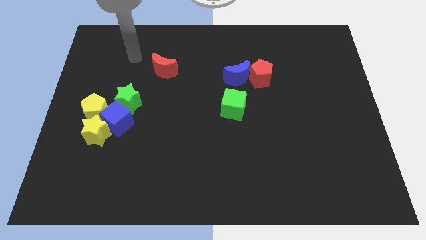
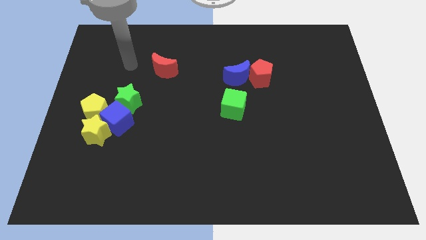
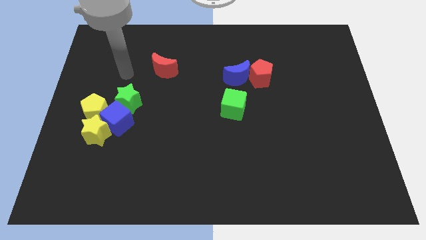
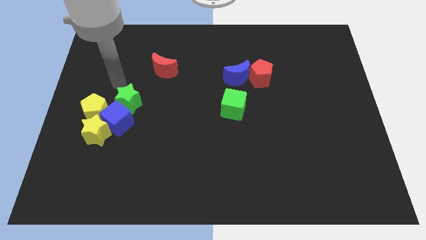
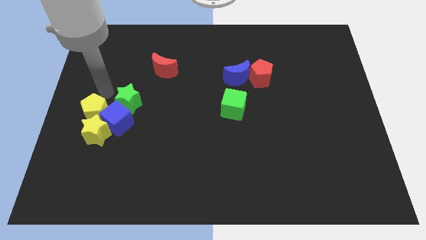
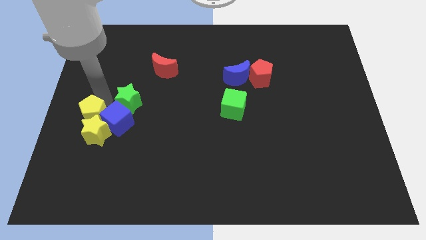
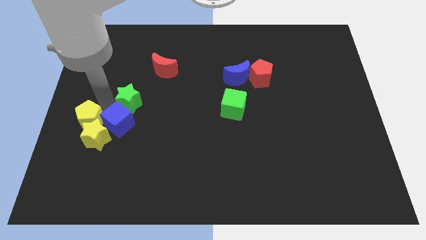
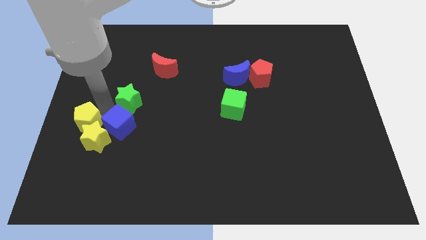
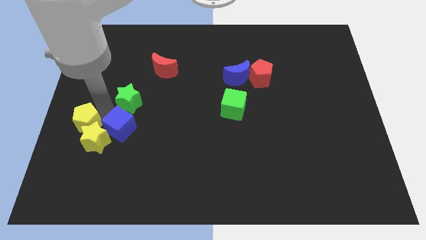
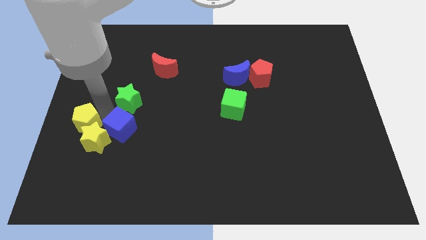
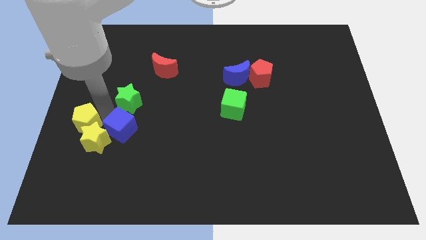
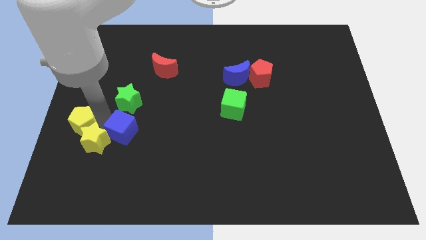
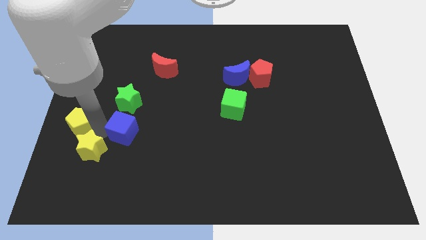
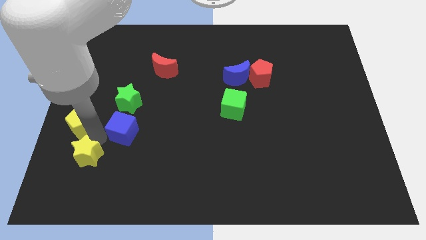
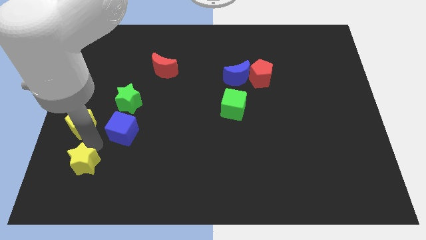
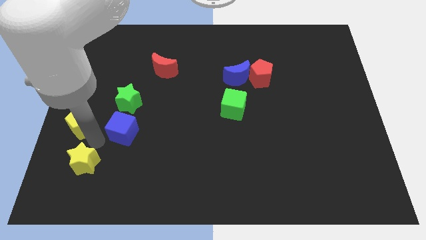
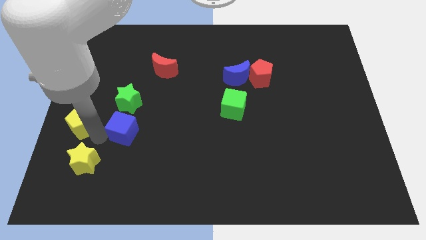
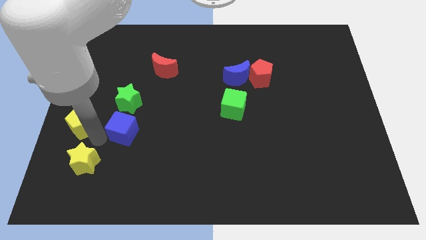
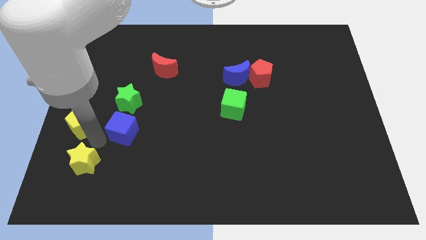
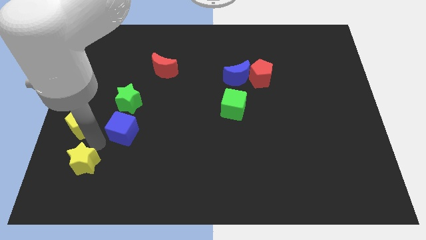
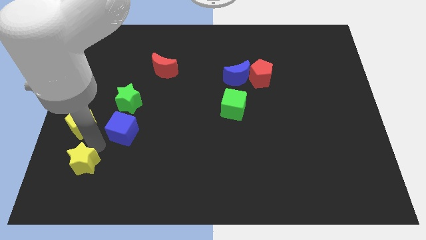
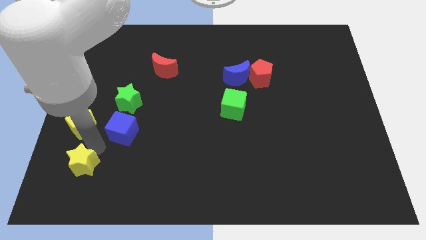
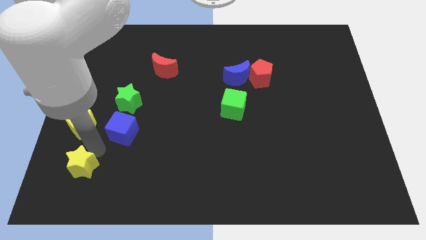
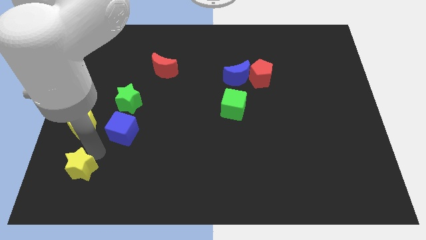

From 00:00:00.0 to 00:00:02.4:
pull the yellow star apart from the blue cube and yellow pentagon

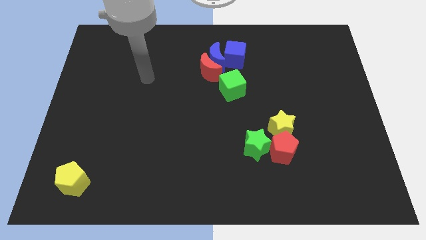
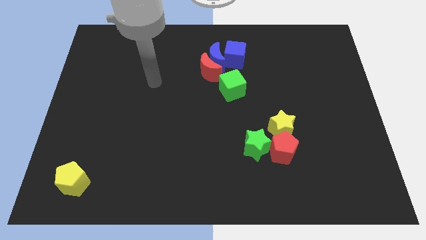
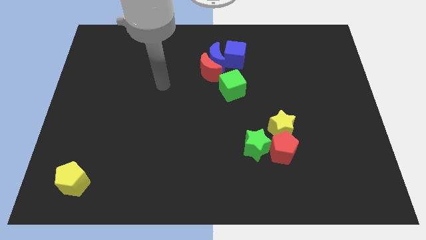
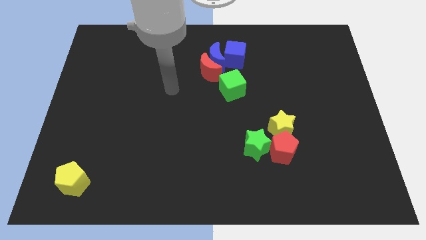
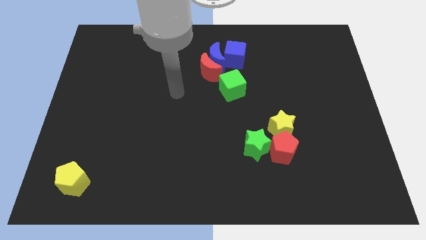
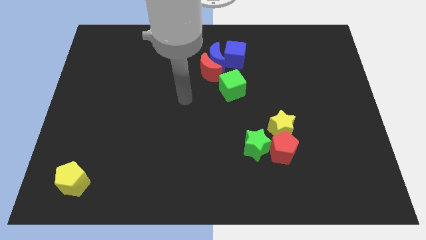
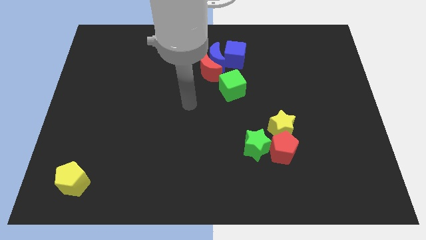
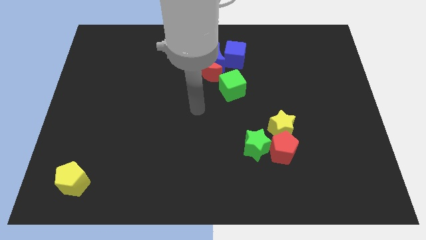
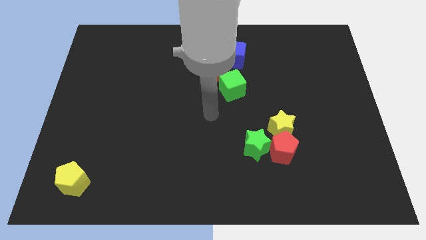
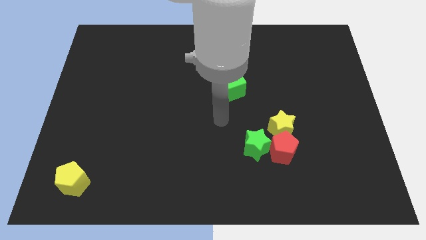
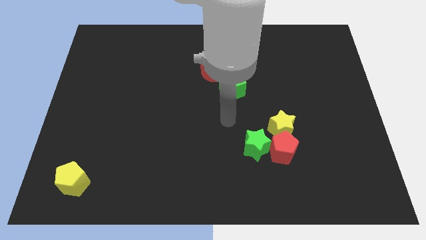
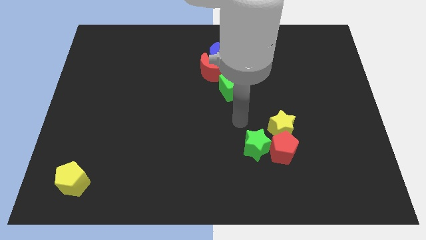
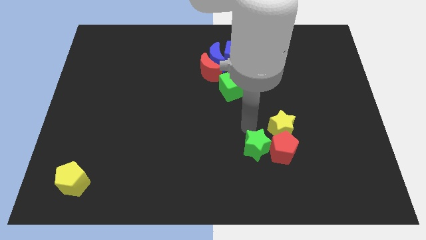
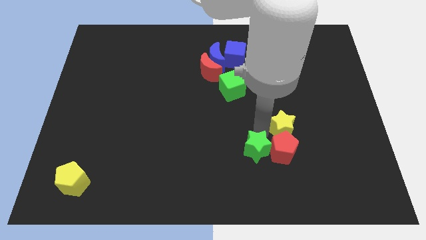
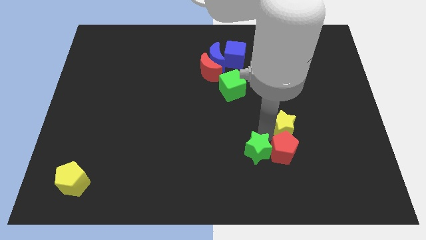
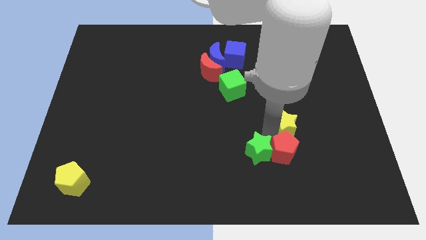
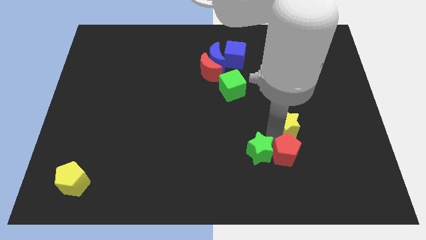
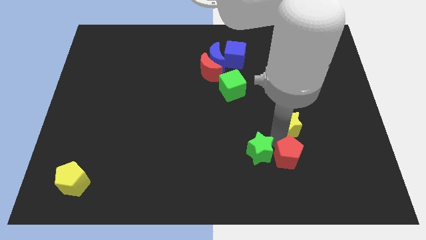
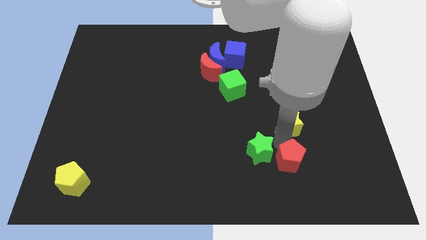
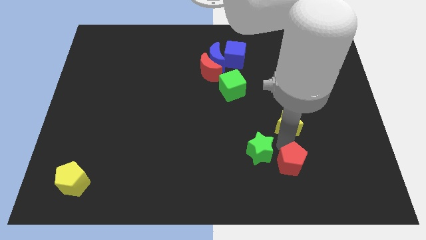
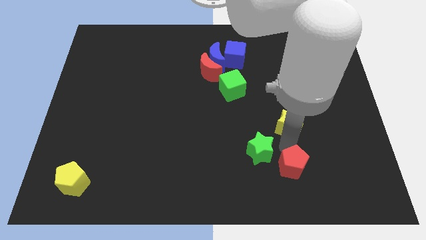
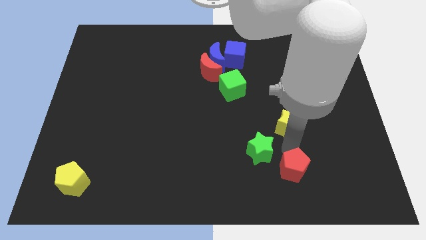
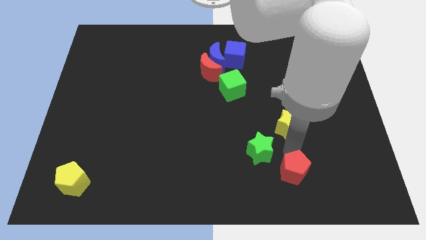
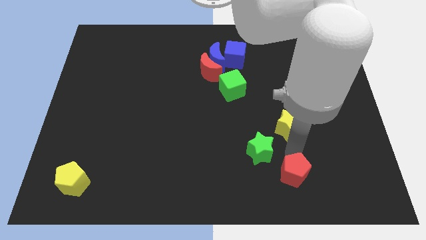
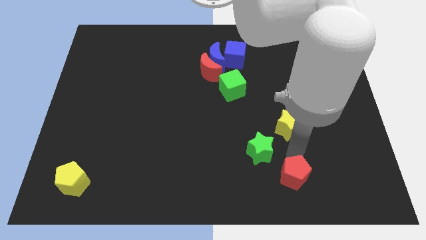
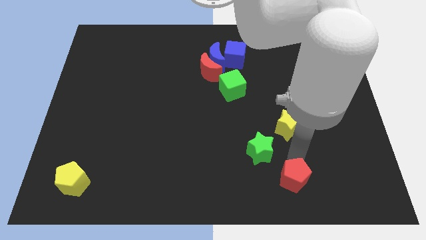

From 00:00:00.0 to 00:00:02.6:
separate the red pentagon from the yellow star and green star

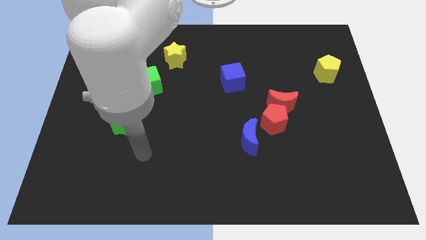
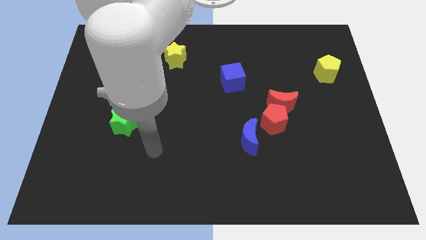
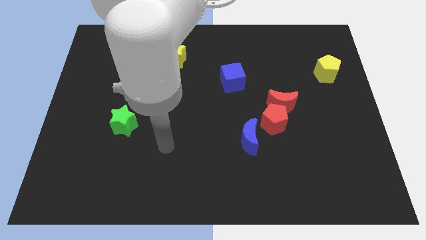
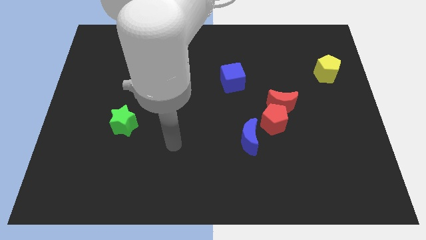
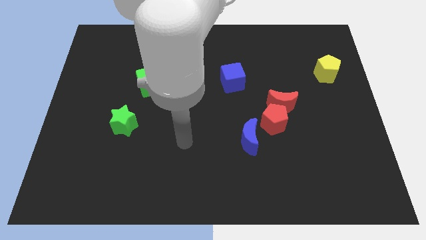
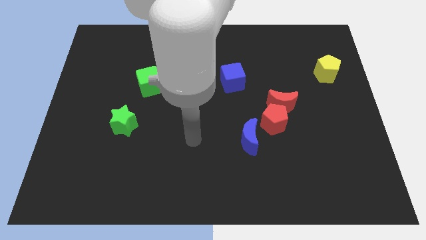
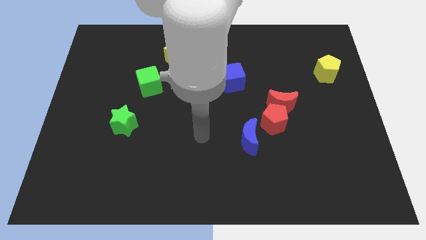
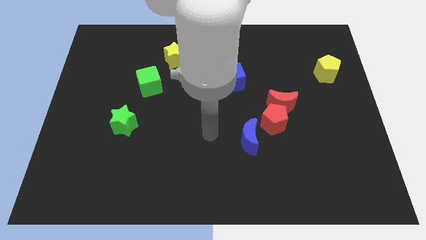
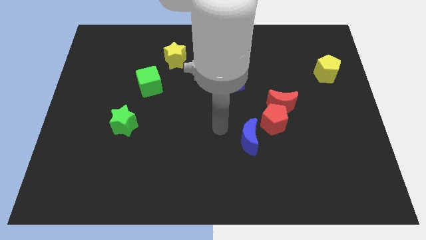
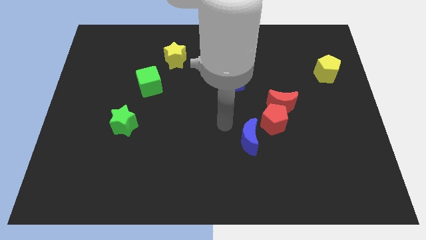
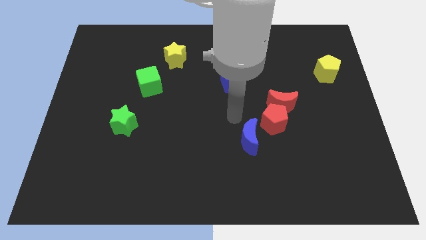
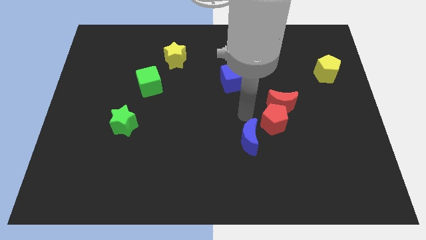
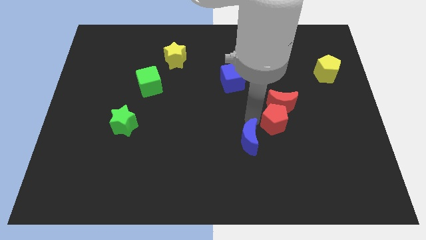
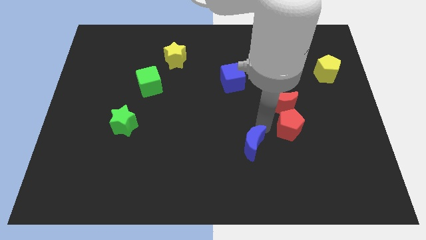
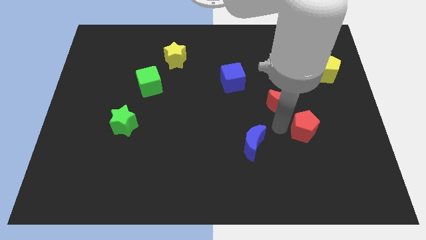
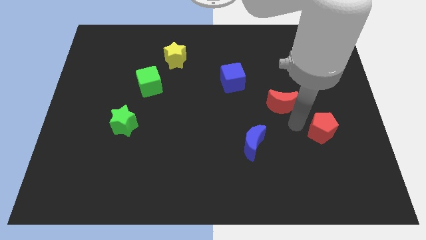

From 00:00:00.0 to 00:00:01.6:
pull the red moon apart from the red pentagon

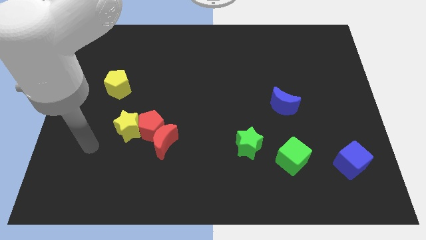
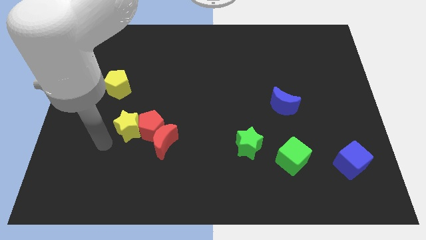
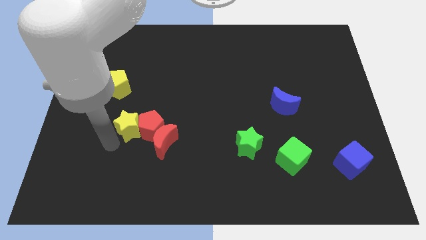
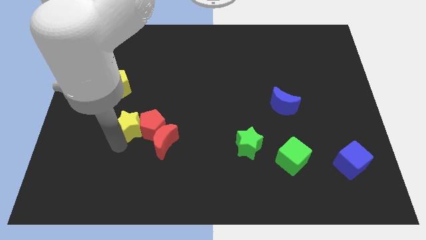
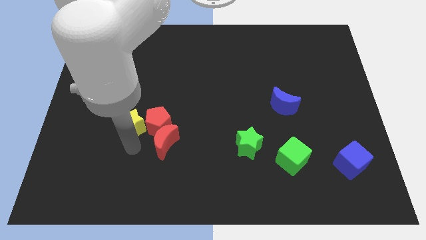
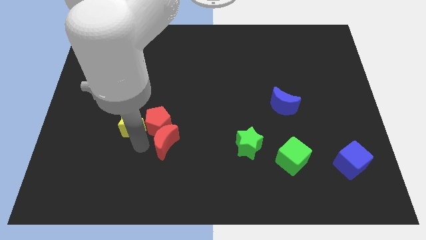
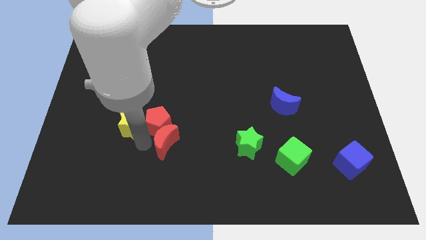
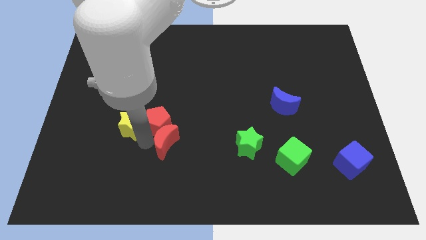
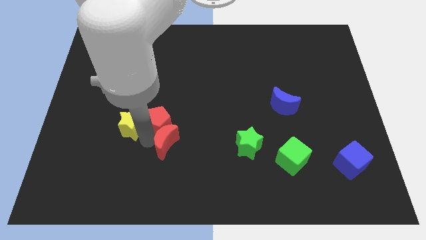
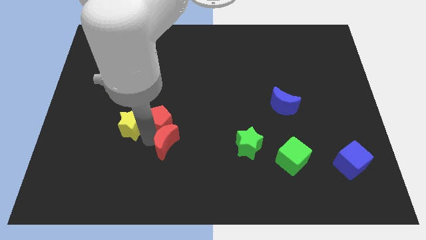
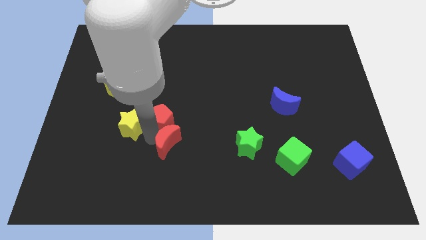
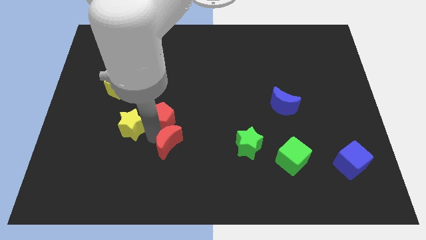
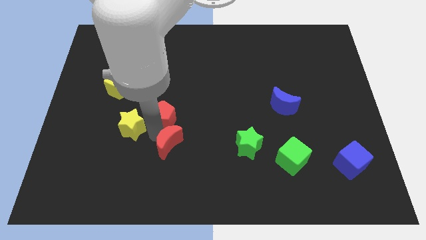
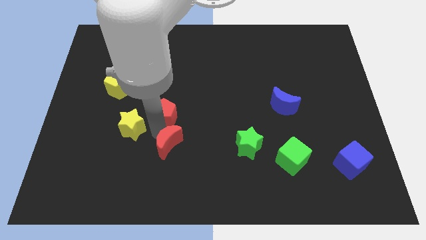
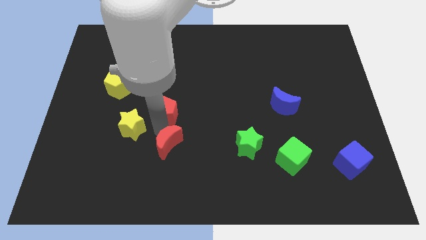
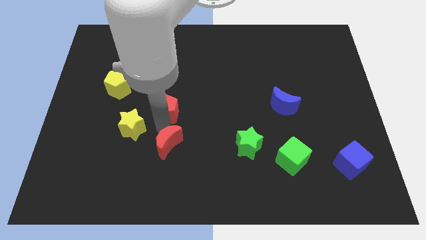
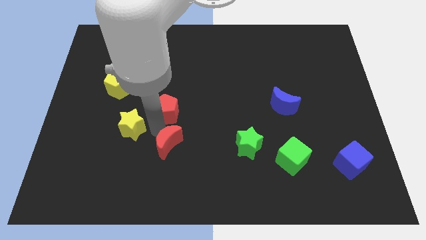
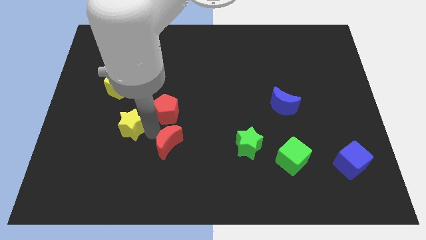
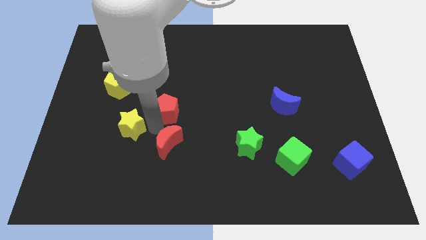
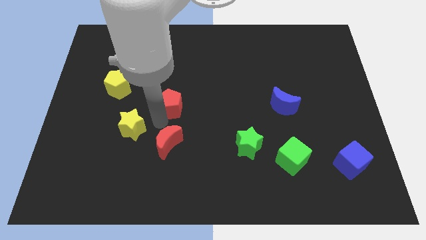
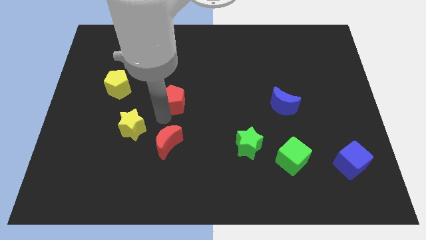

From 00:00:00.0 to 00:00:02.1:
pull the red pentagon apart from the red moon and yellow star

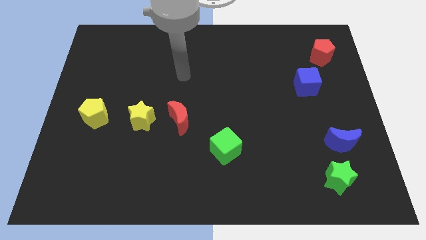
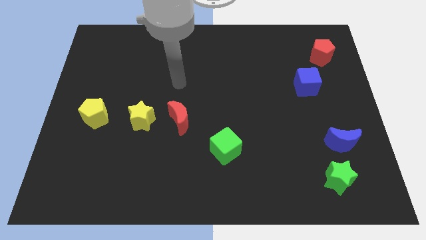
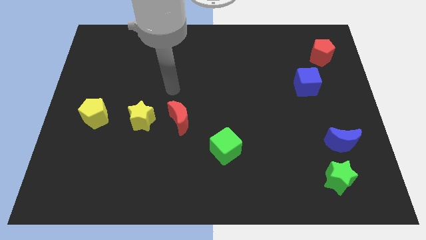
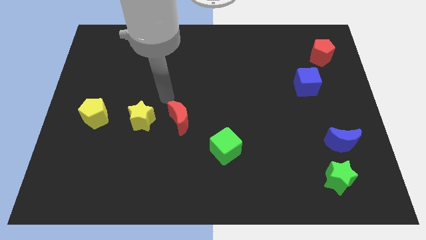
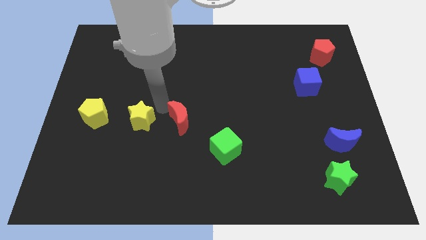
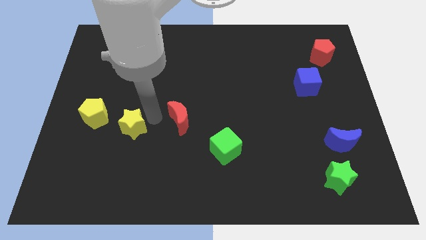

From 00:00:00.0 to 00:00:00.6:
pull the red moon apart from the yellow star
